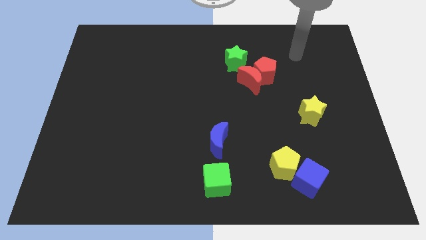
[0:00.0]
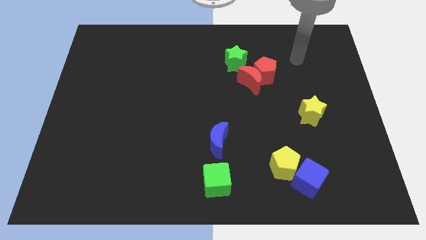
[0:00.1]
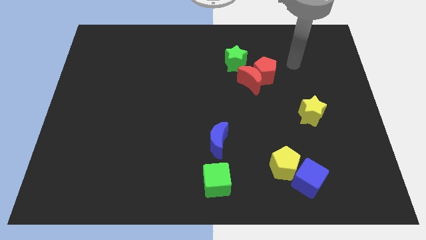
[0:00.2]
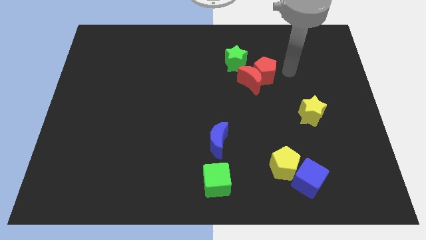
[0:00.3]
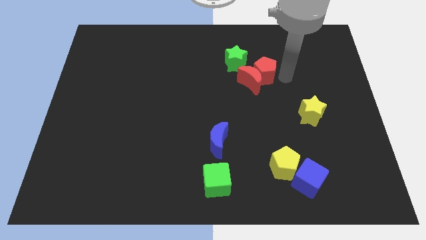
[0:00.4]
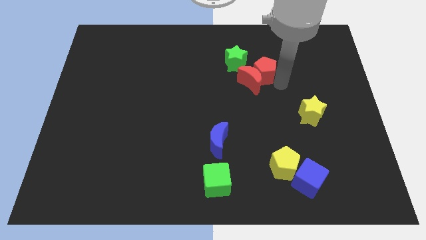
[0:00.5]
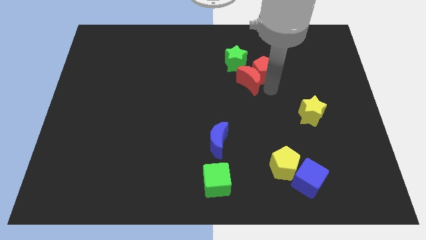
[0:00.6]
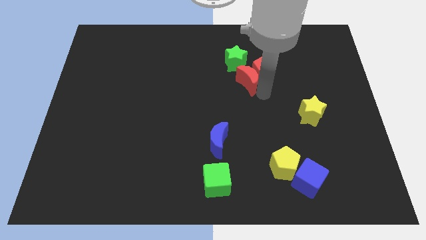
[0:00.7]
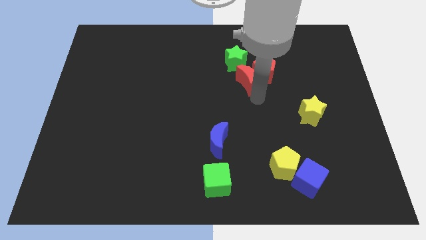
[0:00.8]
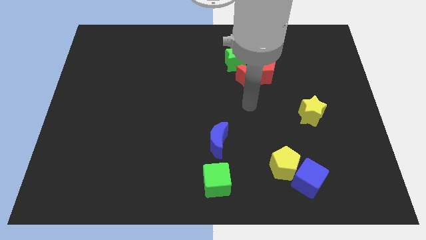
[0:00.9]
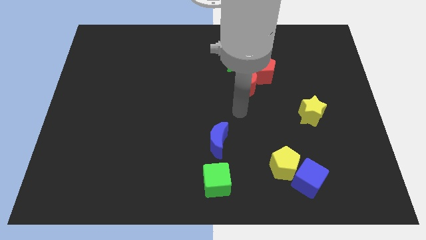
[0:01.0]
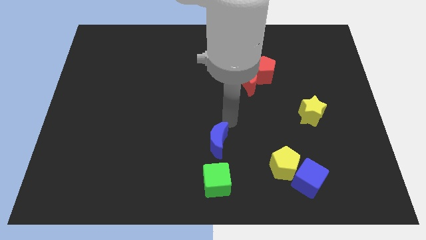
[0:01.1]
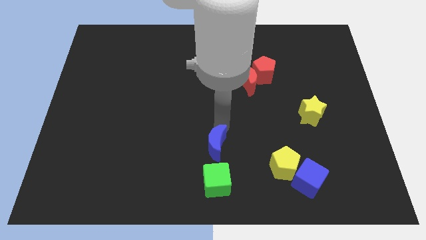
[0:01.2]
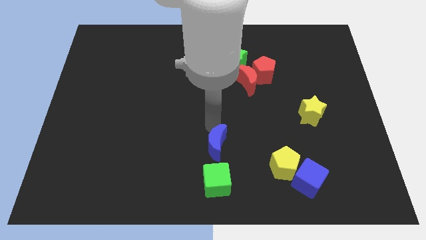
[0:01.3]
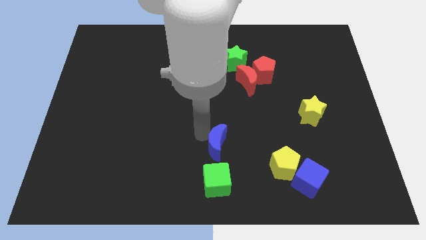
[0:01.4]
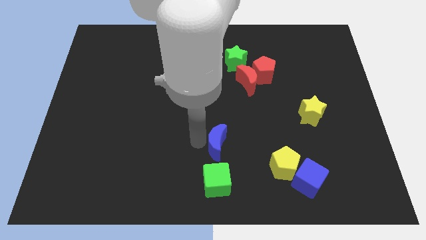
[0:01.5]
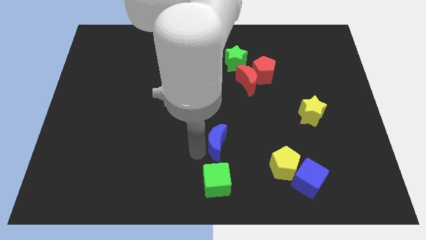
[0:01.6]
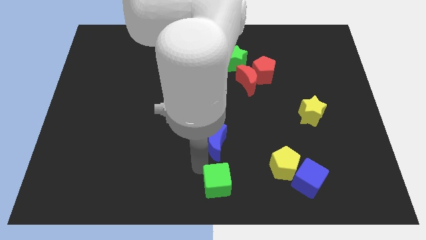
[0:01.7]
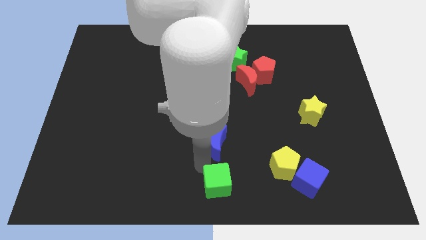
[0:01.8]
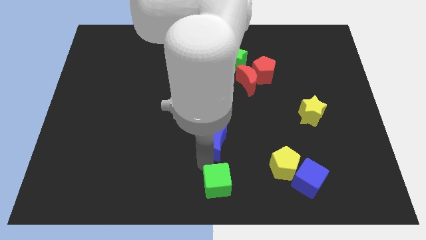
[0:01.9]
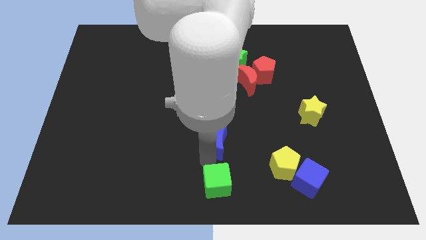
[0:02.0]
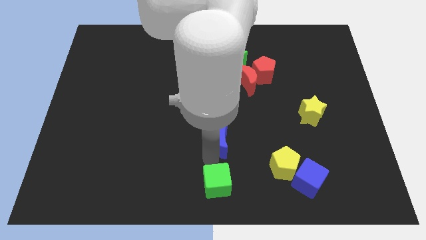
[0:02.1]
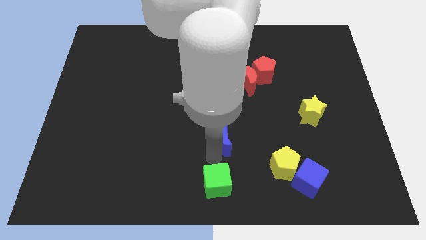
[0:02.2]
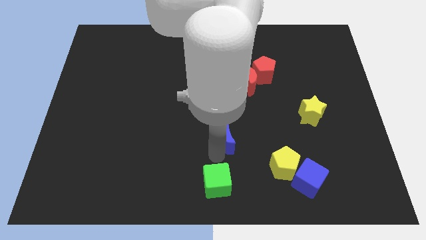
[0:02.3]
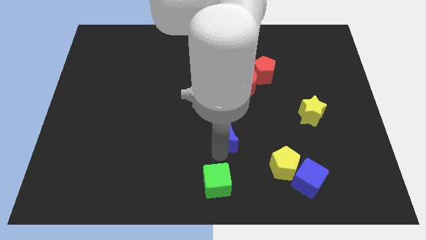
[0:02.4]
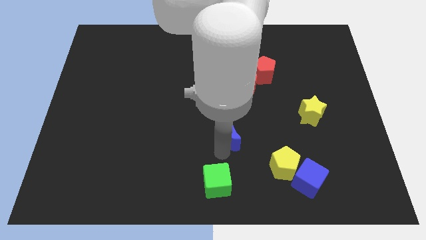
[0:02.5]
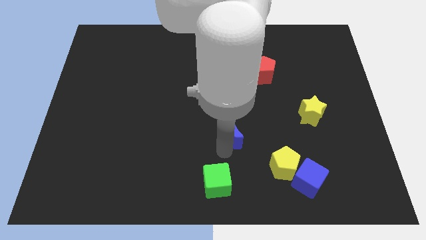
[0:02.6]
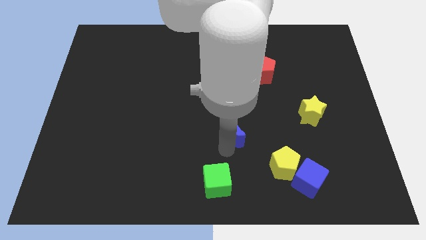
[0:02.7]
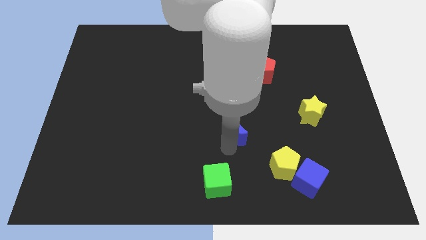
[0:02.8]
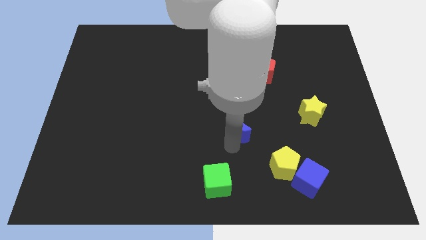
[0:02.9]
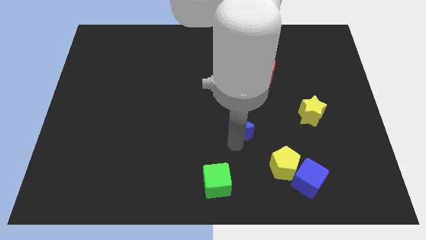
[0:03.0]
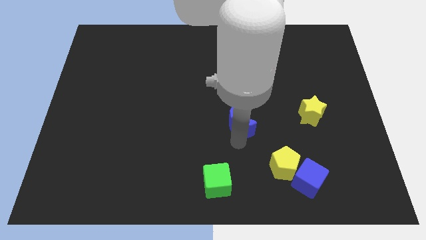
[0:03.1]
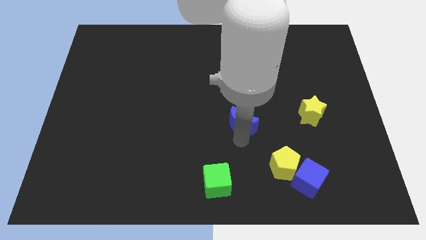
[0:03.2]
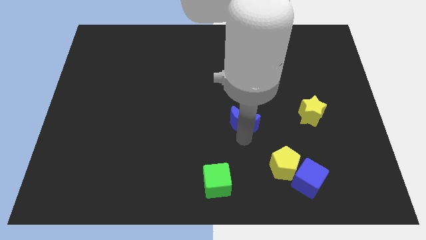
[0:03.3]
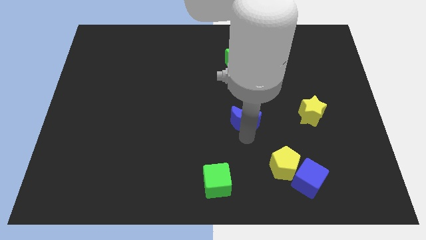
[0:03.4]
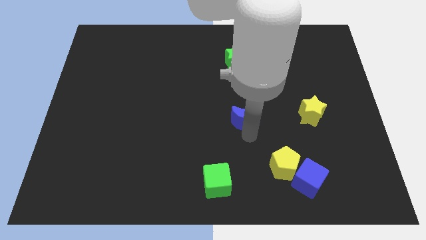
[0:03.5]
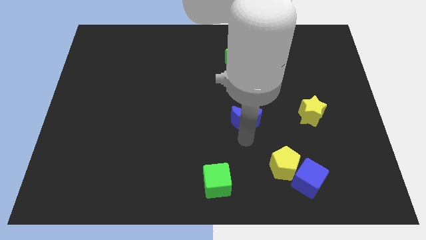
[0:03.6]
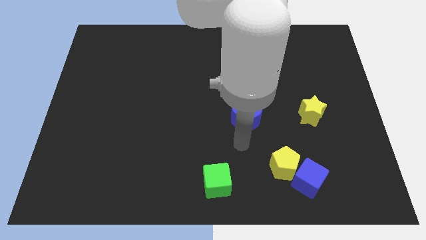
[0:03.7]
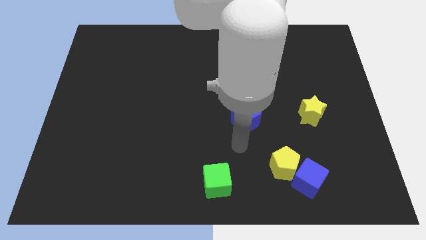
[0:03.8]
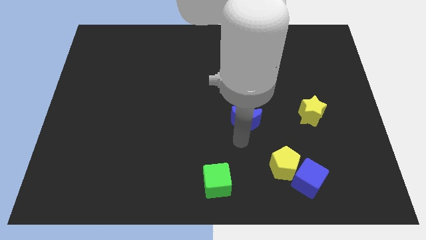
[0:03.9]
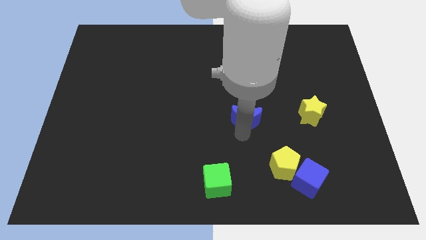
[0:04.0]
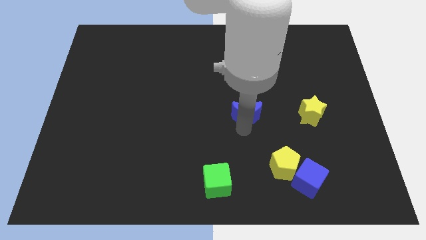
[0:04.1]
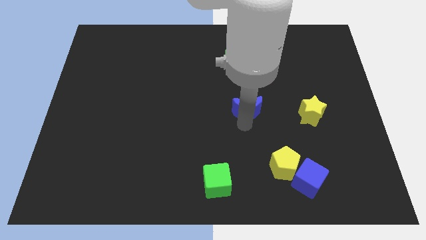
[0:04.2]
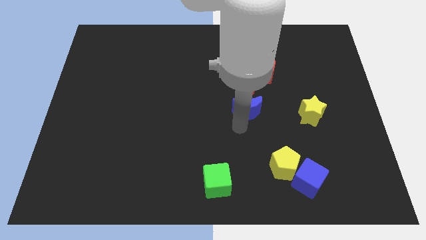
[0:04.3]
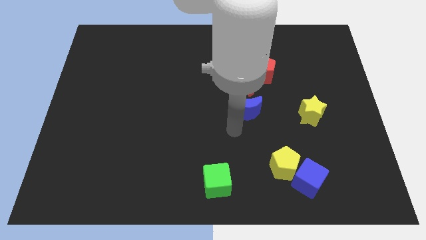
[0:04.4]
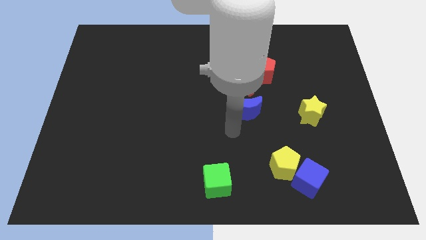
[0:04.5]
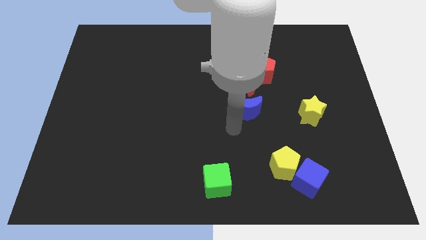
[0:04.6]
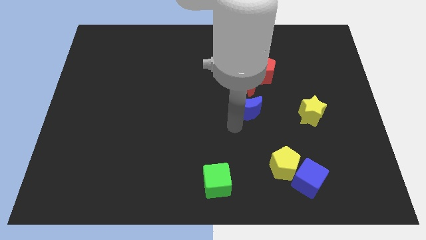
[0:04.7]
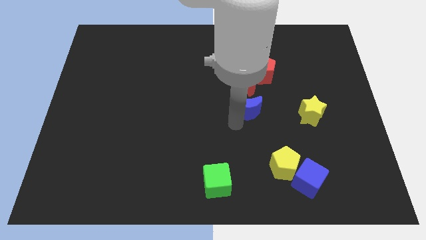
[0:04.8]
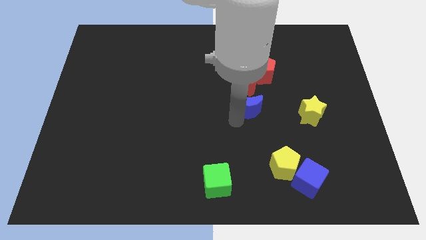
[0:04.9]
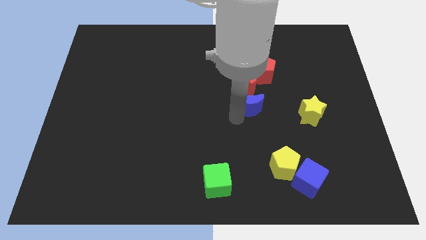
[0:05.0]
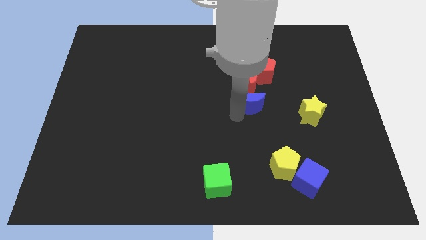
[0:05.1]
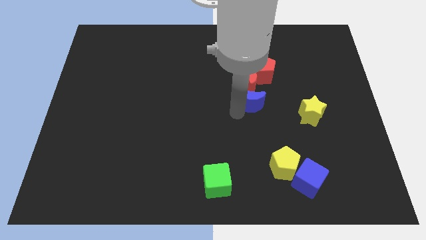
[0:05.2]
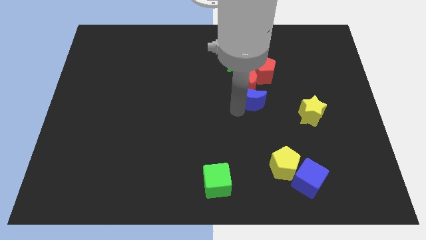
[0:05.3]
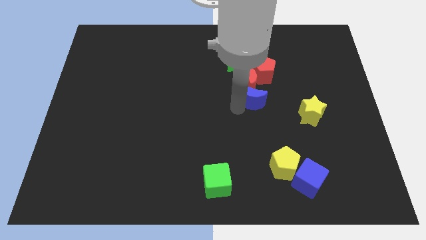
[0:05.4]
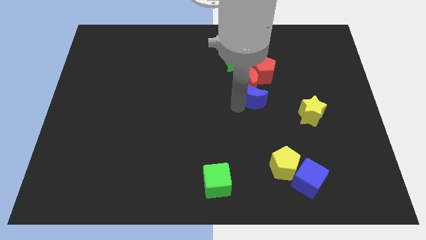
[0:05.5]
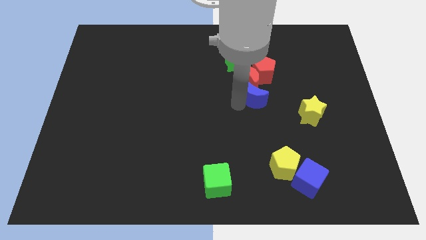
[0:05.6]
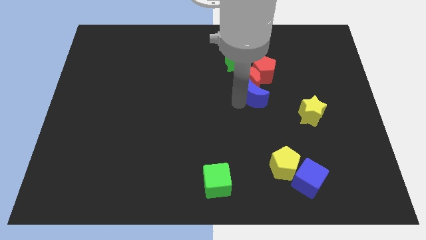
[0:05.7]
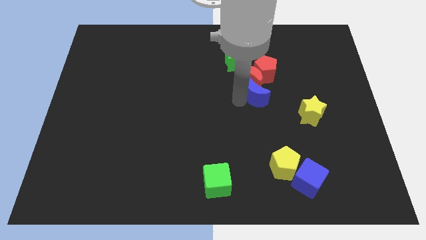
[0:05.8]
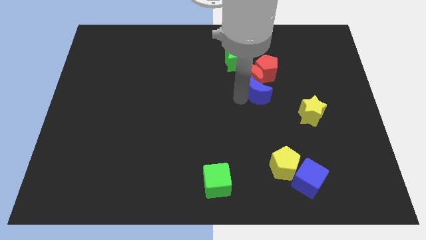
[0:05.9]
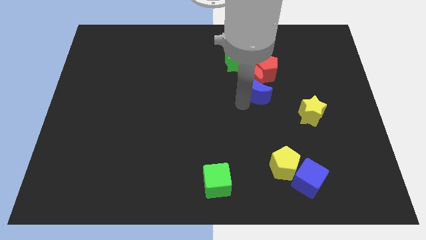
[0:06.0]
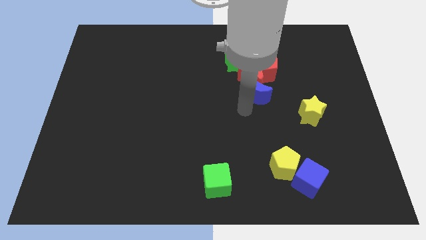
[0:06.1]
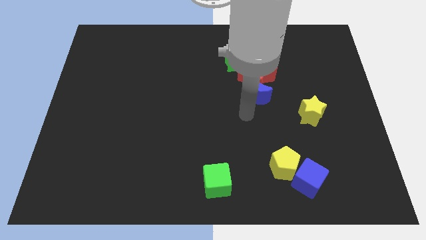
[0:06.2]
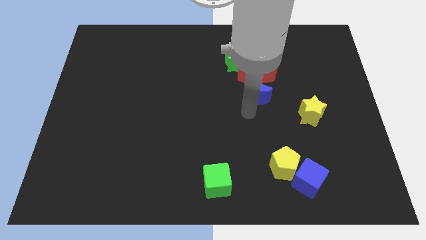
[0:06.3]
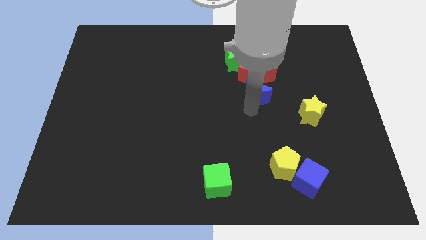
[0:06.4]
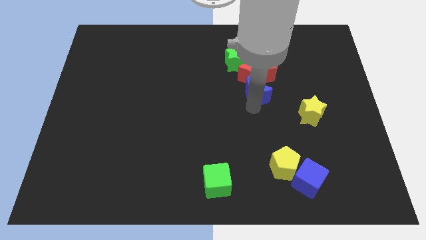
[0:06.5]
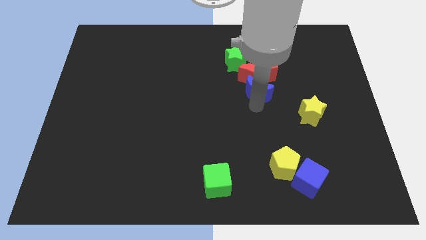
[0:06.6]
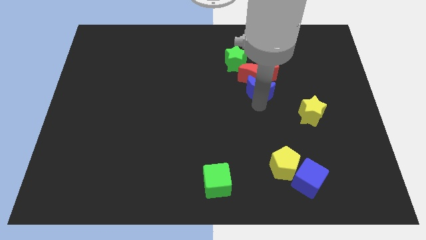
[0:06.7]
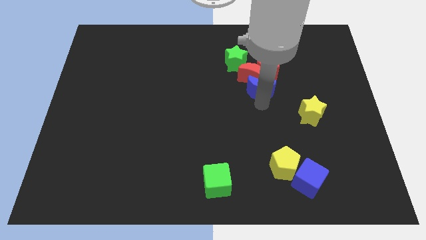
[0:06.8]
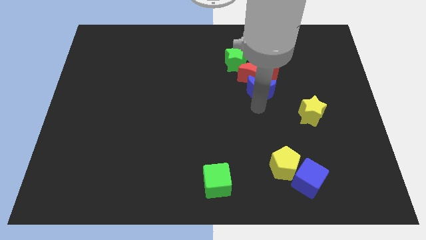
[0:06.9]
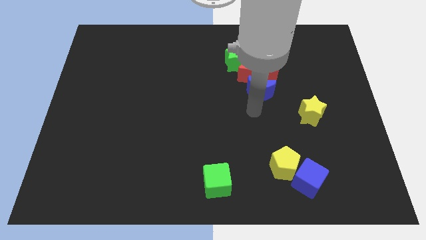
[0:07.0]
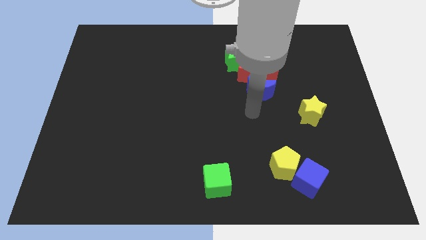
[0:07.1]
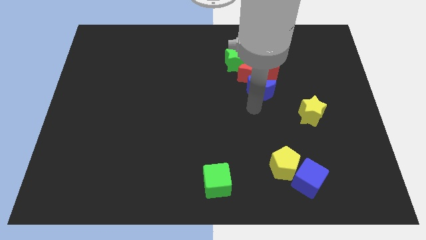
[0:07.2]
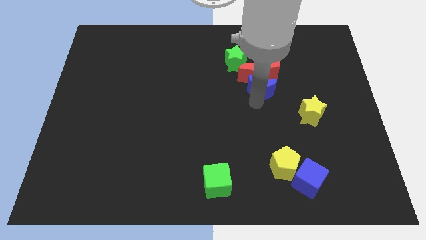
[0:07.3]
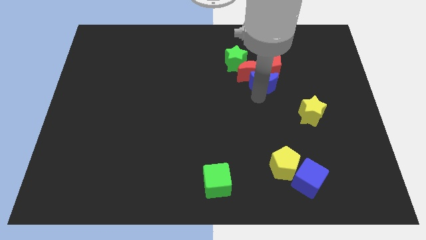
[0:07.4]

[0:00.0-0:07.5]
move the blue moon next to the red pentagon
